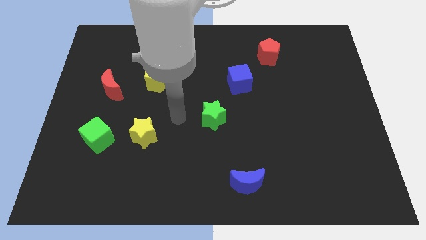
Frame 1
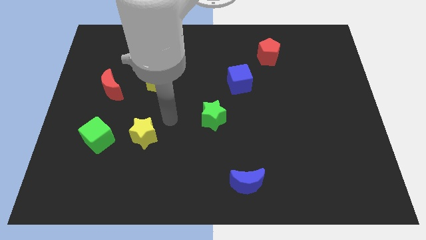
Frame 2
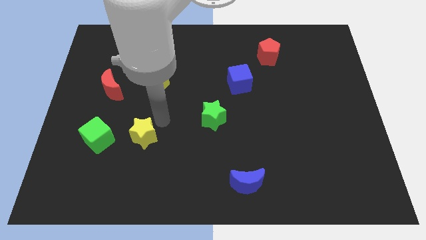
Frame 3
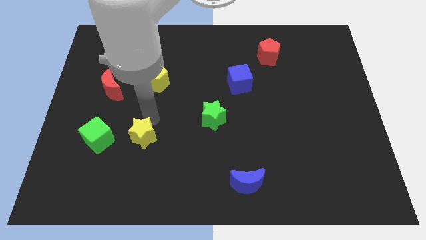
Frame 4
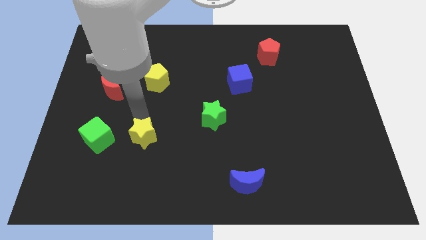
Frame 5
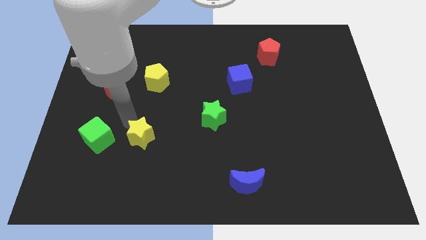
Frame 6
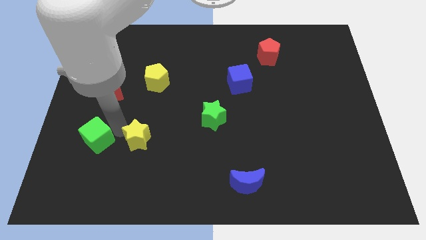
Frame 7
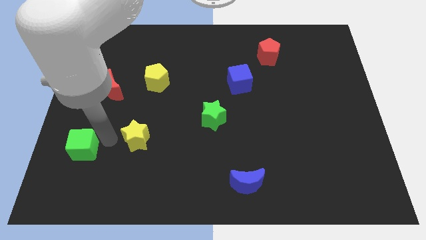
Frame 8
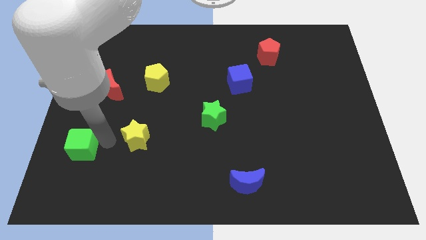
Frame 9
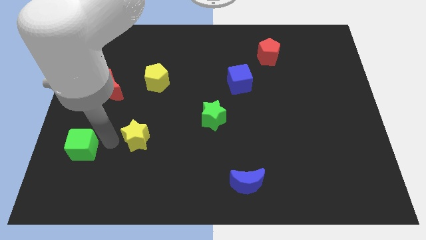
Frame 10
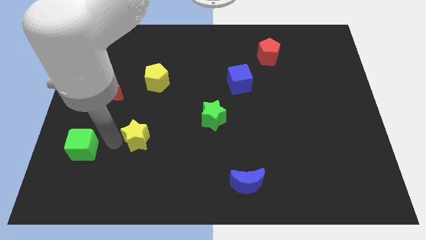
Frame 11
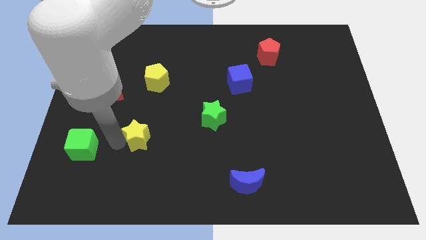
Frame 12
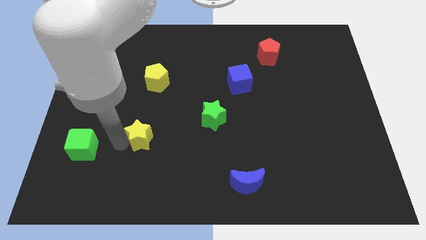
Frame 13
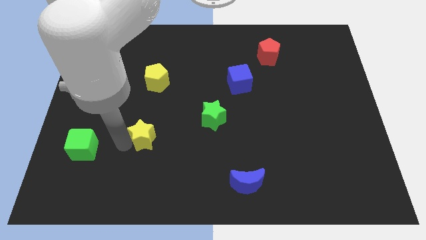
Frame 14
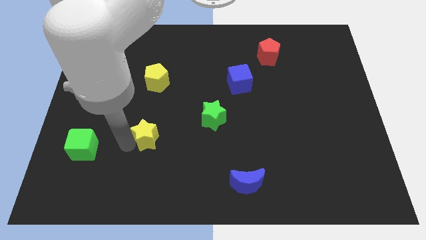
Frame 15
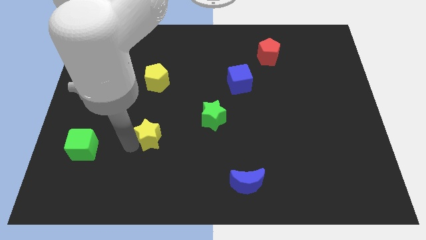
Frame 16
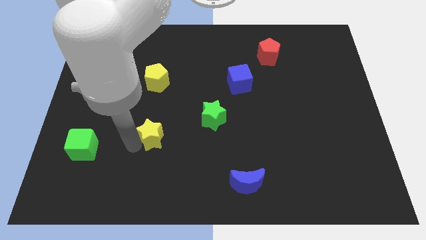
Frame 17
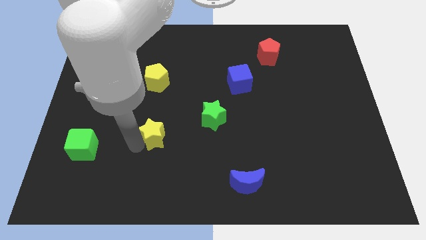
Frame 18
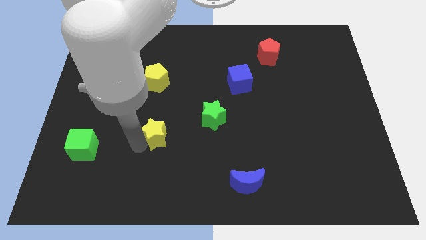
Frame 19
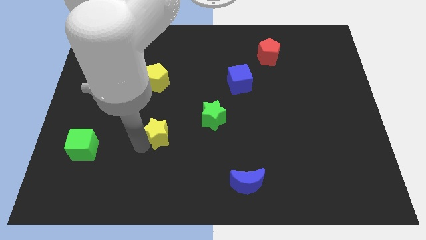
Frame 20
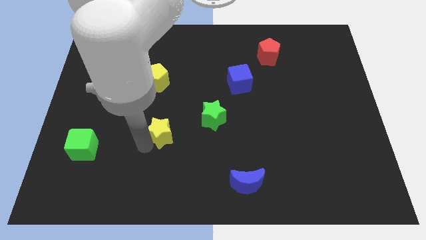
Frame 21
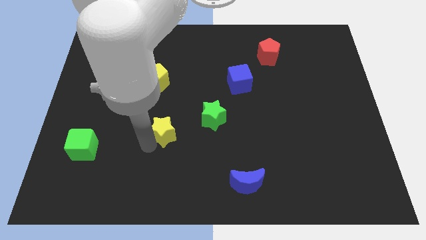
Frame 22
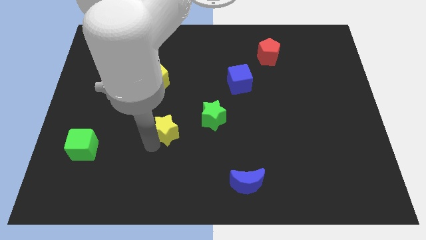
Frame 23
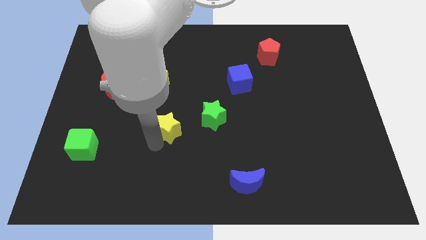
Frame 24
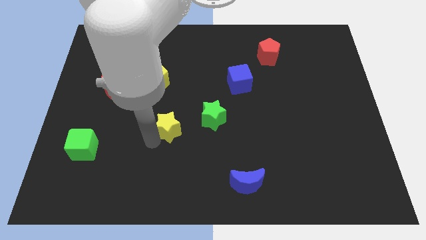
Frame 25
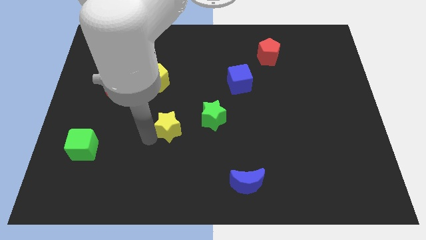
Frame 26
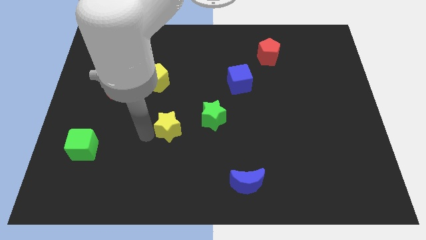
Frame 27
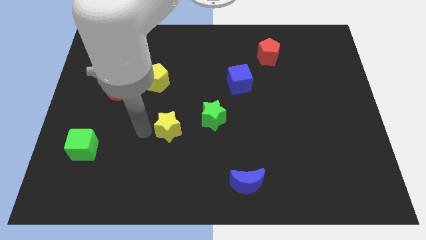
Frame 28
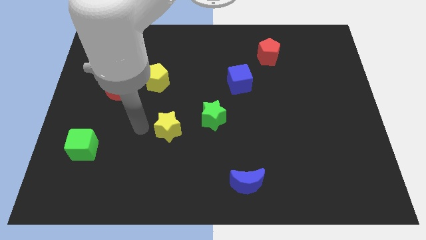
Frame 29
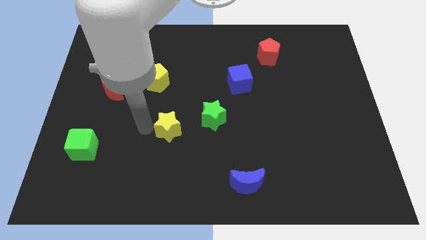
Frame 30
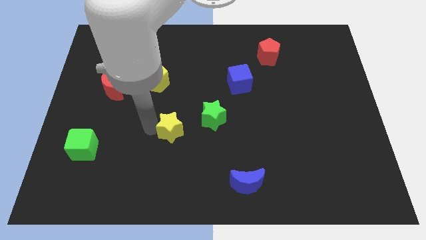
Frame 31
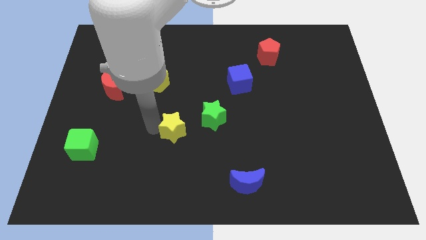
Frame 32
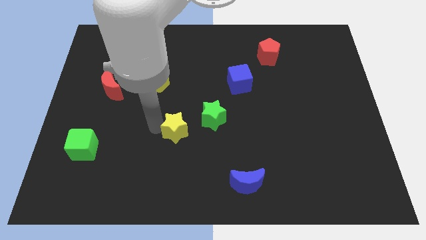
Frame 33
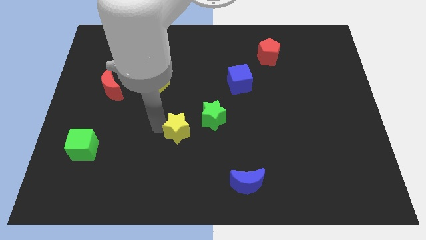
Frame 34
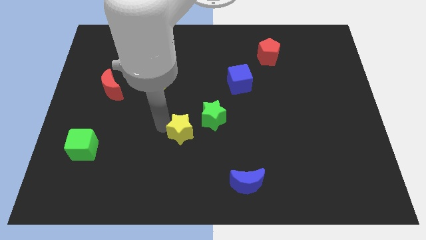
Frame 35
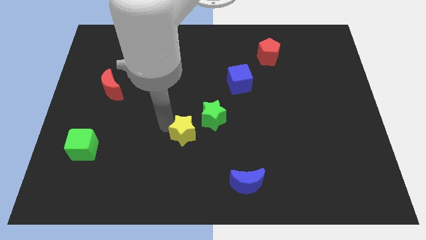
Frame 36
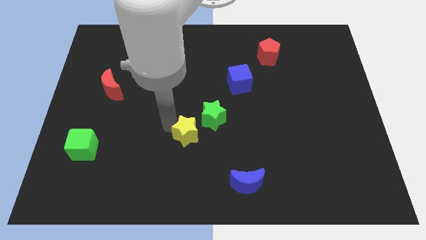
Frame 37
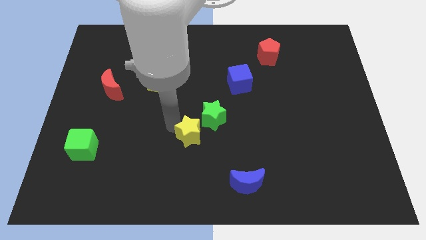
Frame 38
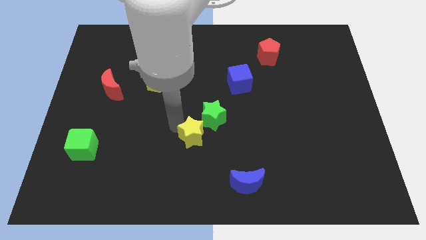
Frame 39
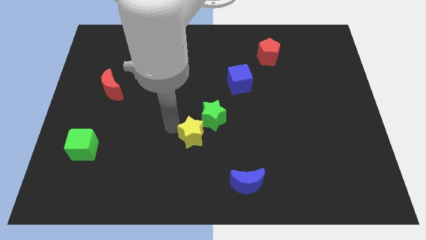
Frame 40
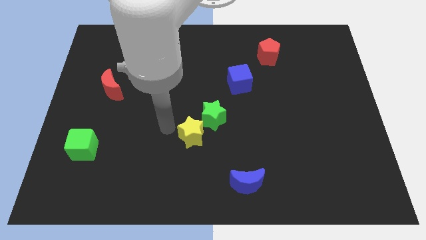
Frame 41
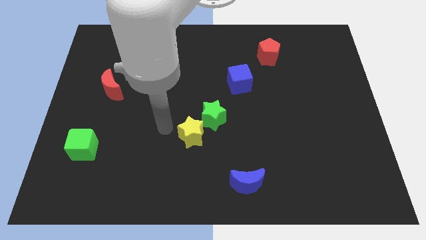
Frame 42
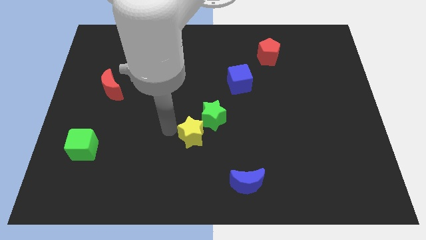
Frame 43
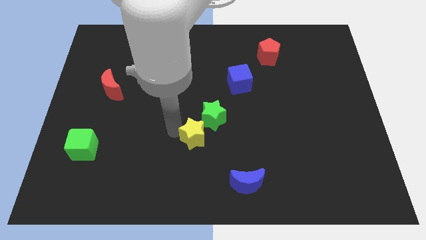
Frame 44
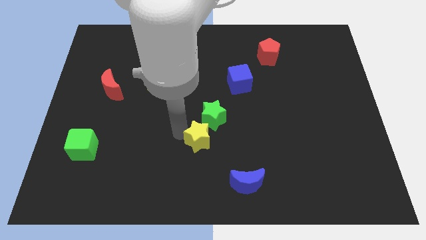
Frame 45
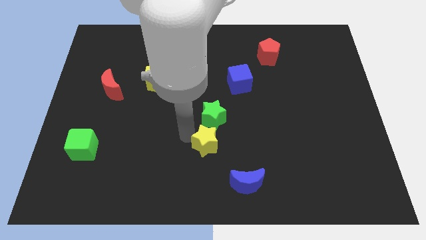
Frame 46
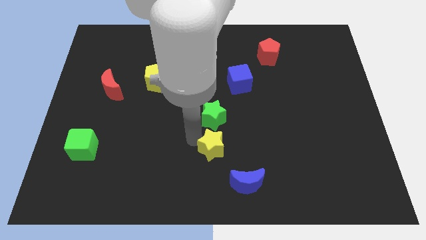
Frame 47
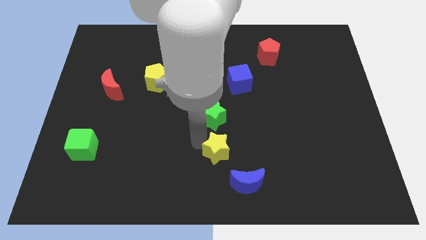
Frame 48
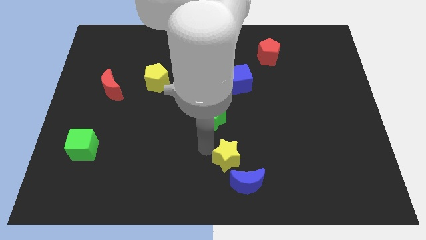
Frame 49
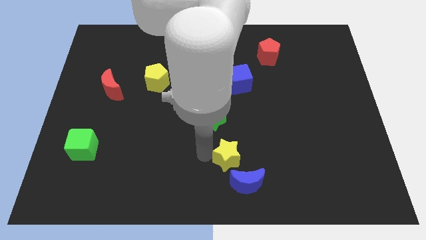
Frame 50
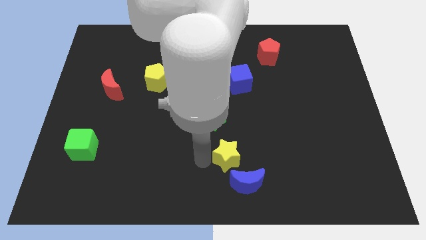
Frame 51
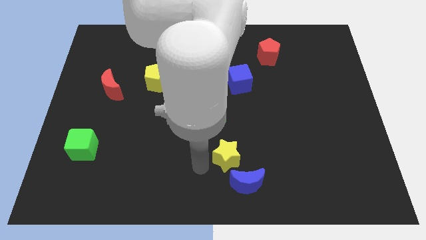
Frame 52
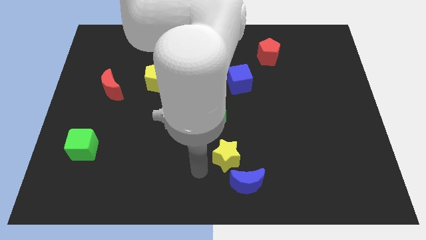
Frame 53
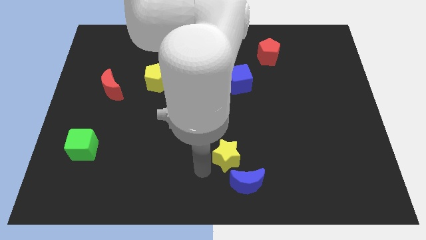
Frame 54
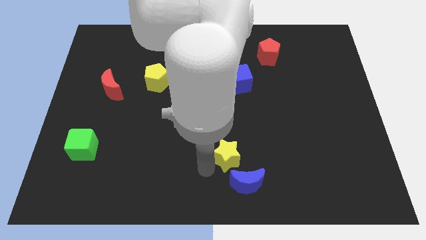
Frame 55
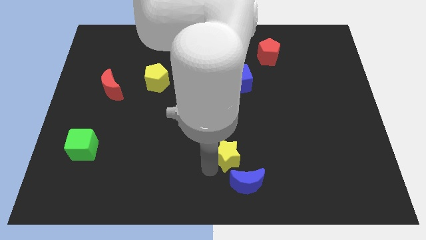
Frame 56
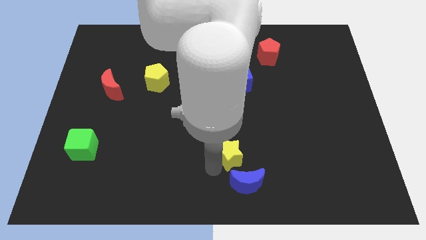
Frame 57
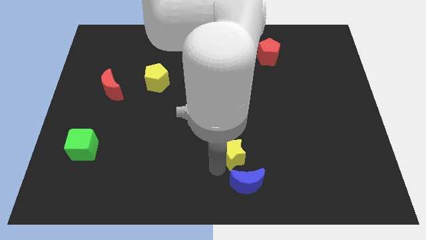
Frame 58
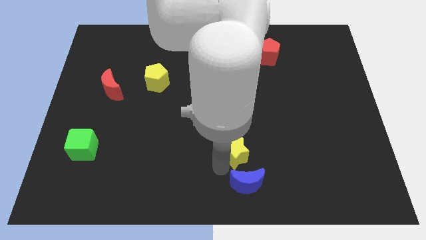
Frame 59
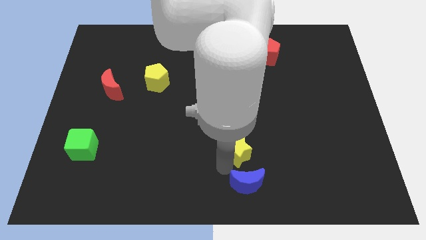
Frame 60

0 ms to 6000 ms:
slide the yellow star right

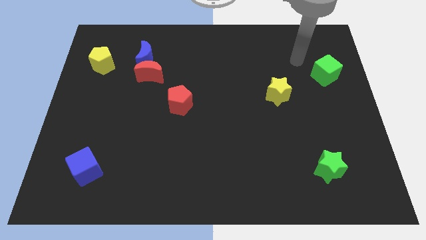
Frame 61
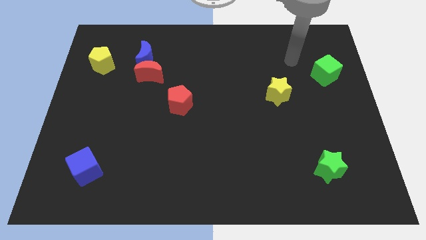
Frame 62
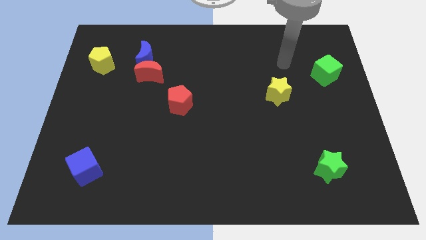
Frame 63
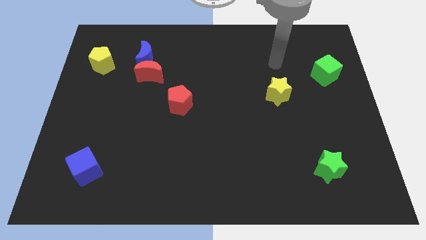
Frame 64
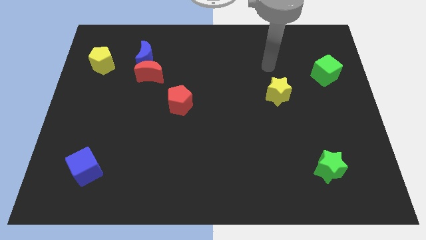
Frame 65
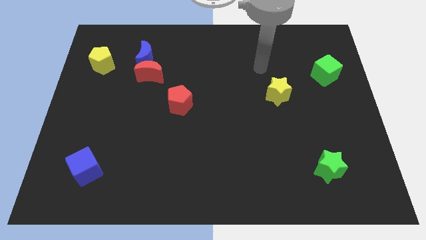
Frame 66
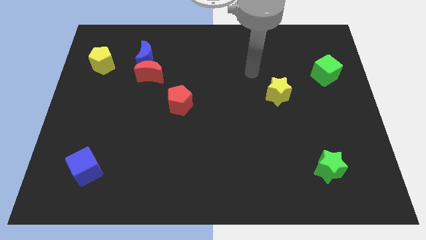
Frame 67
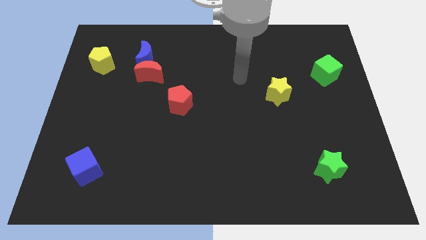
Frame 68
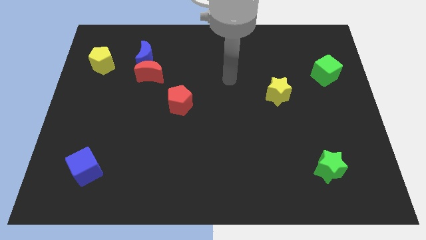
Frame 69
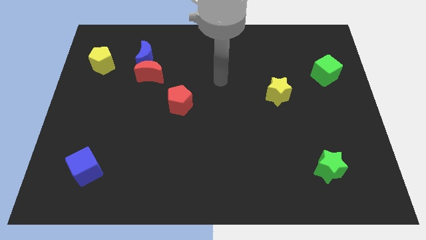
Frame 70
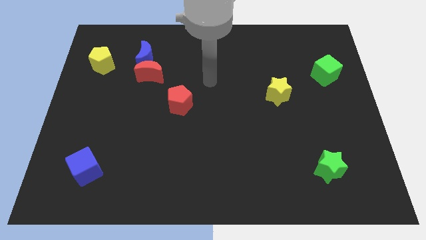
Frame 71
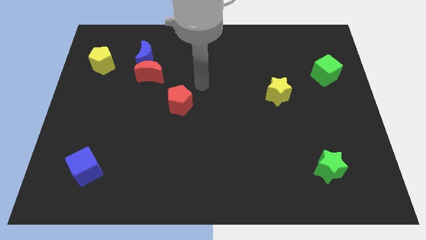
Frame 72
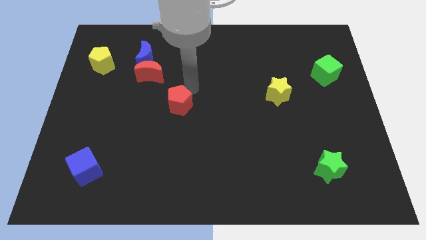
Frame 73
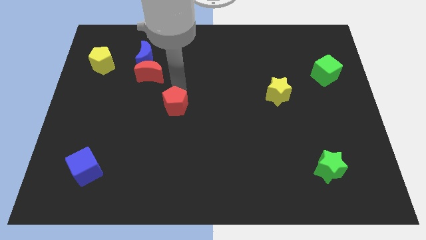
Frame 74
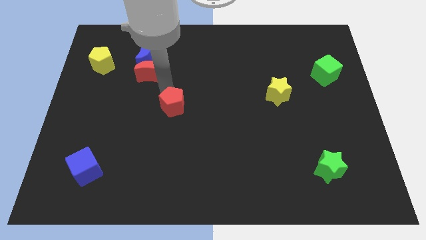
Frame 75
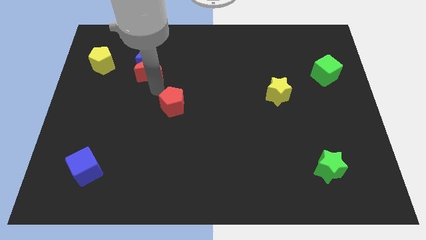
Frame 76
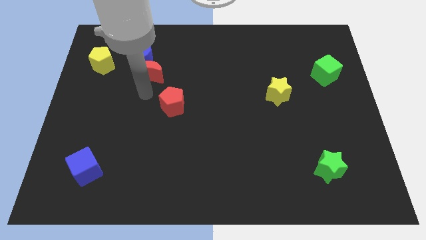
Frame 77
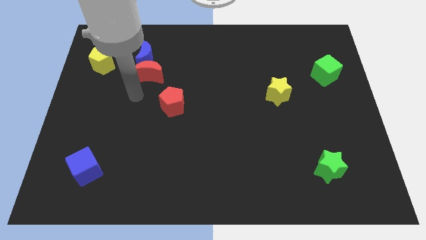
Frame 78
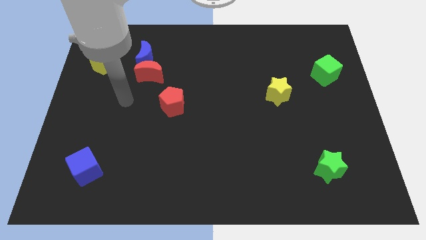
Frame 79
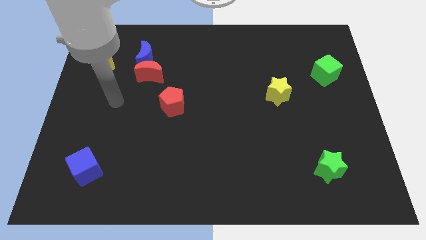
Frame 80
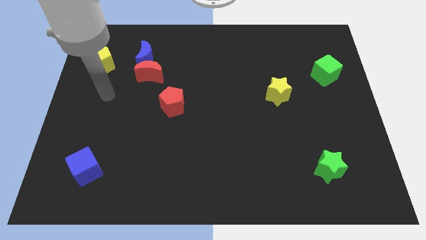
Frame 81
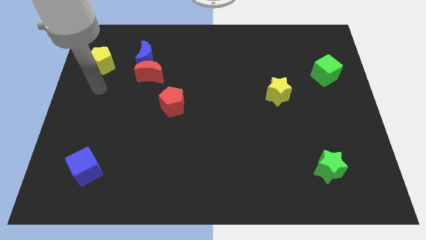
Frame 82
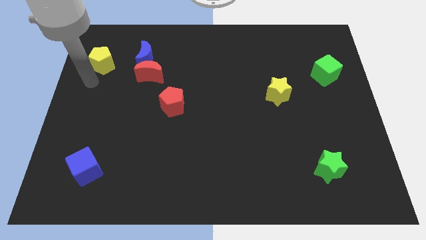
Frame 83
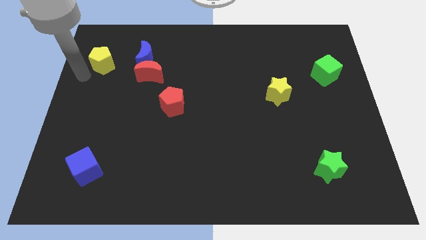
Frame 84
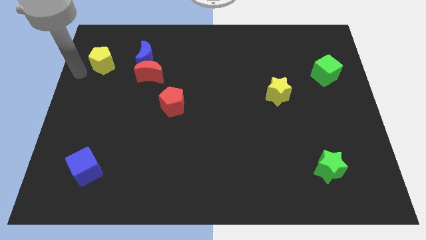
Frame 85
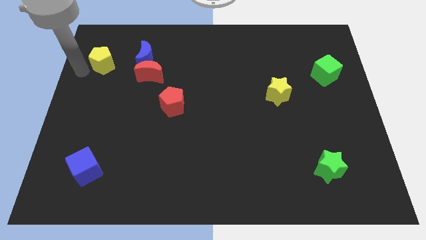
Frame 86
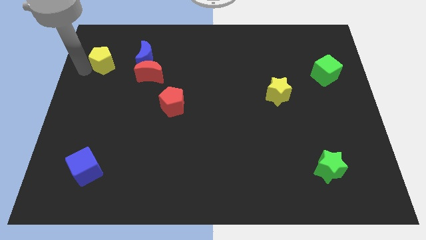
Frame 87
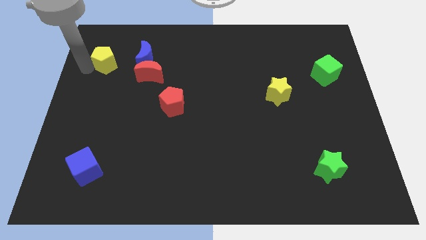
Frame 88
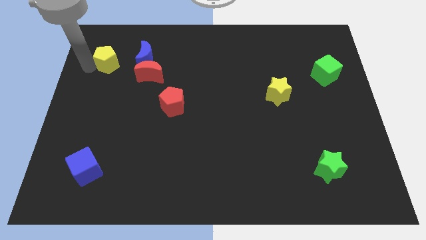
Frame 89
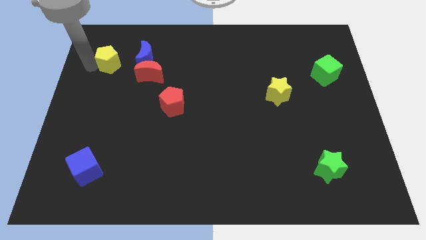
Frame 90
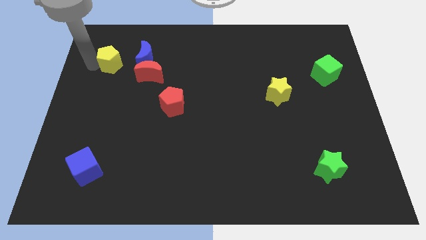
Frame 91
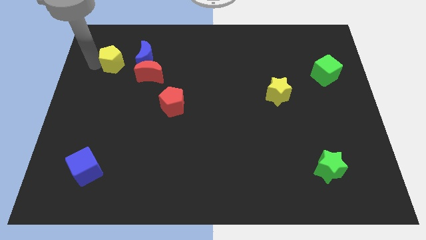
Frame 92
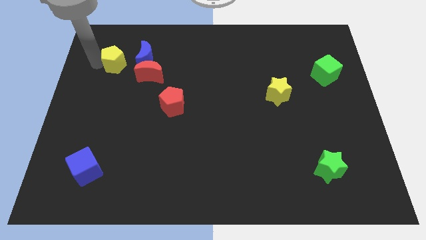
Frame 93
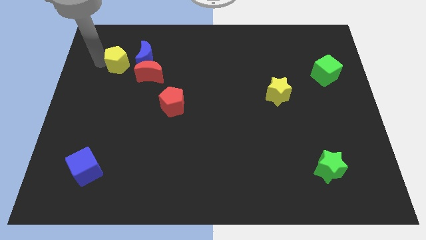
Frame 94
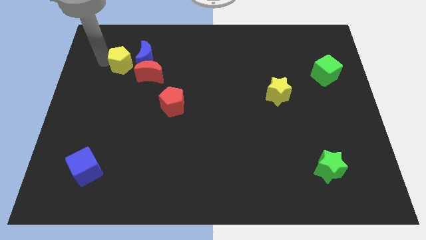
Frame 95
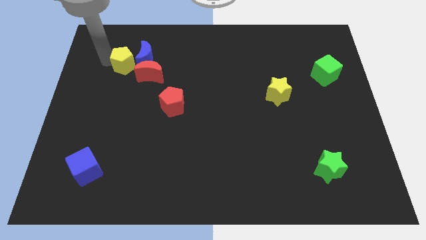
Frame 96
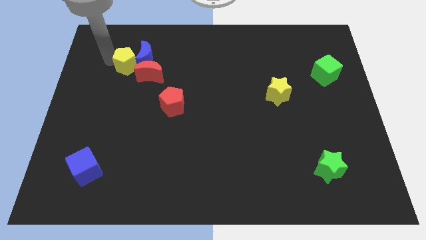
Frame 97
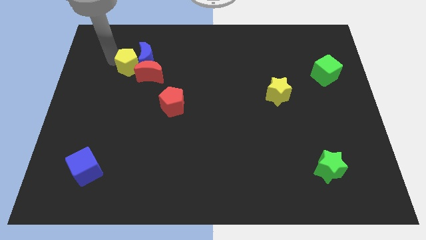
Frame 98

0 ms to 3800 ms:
slightly move the yellow pentagon right
